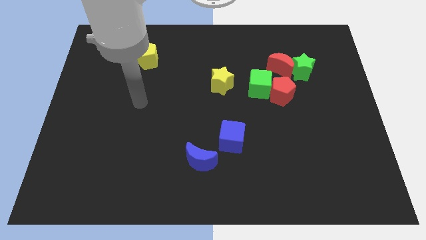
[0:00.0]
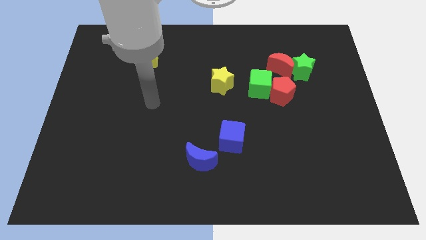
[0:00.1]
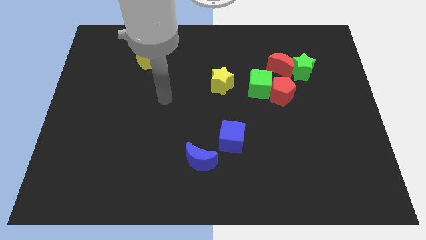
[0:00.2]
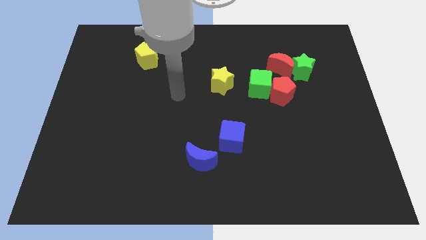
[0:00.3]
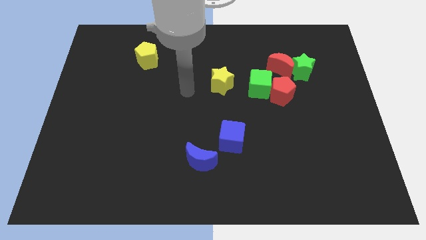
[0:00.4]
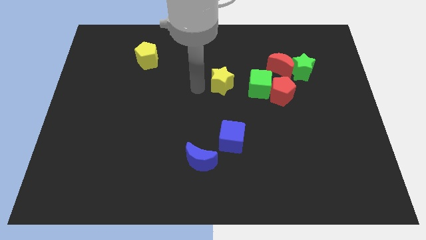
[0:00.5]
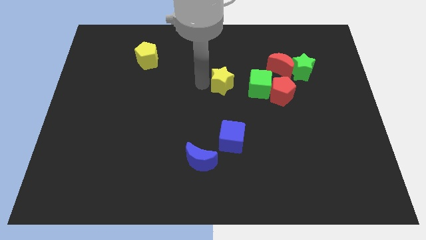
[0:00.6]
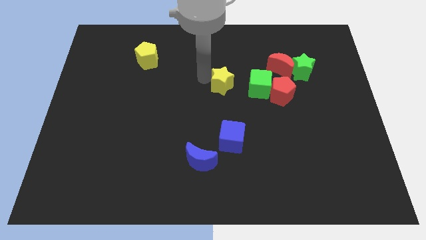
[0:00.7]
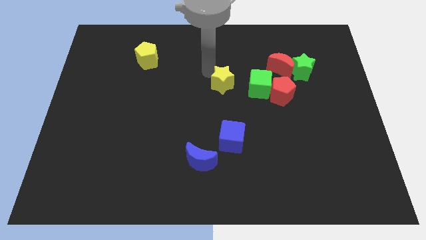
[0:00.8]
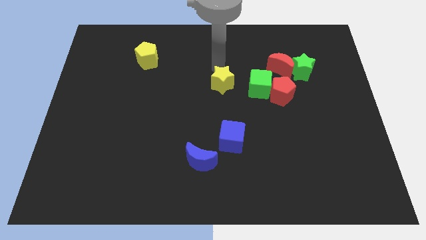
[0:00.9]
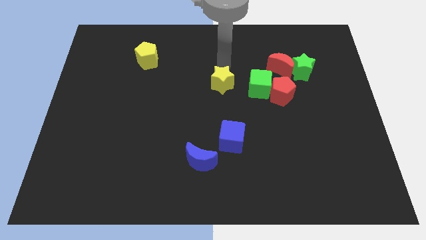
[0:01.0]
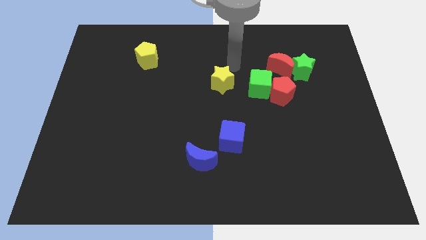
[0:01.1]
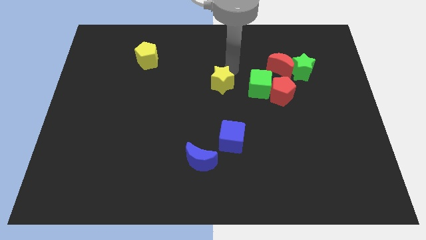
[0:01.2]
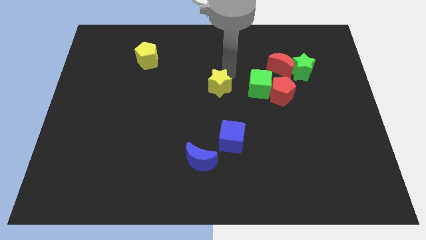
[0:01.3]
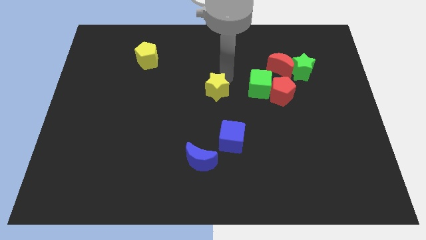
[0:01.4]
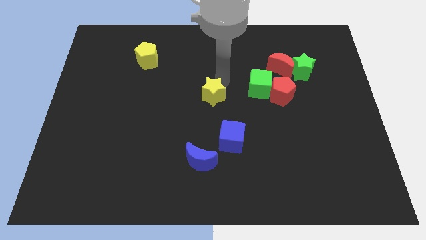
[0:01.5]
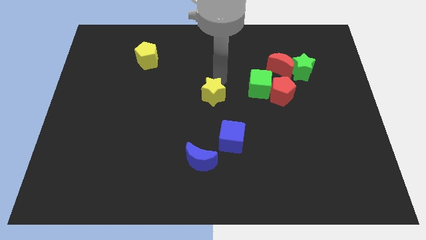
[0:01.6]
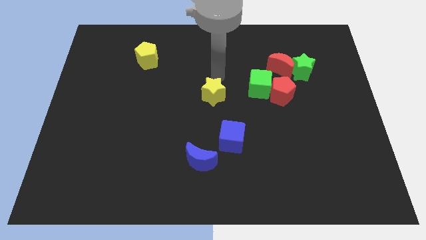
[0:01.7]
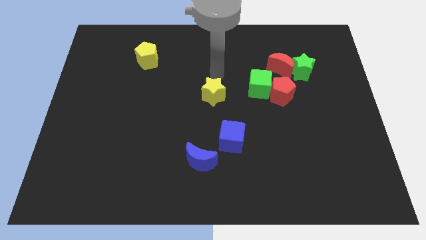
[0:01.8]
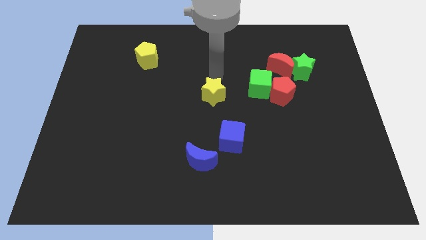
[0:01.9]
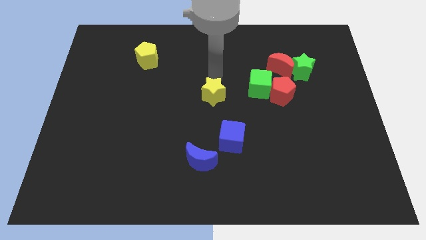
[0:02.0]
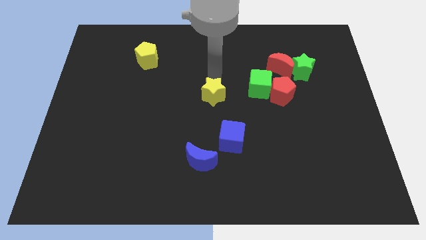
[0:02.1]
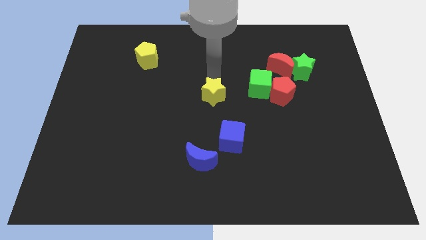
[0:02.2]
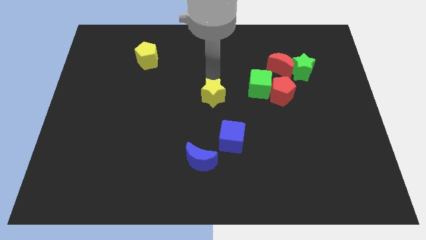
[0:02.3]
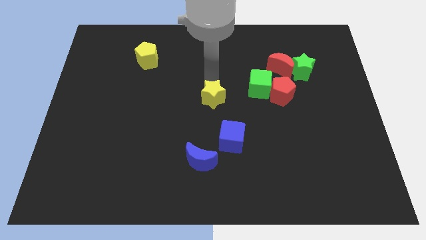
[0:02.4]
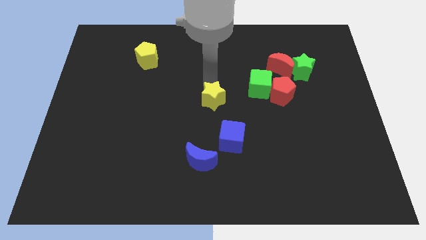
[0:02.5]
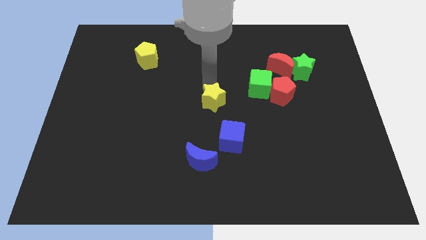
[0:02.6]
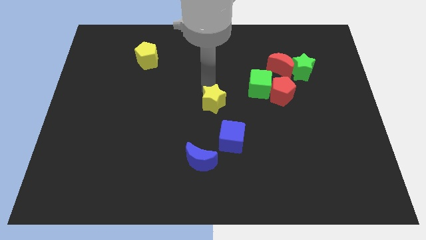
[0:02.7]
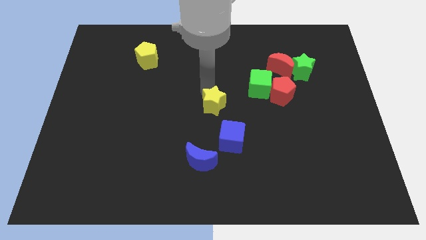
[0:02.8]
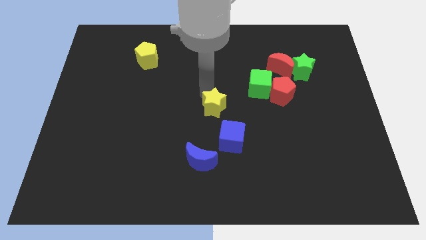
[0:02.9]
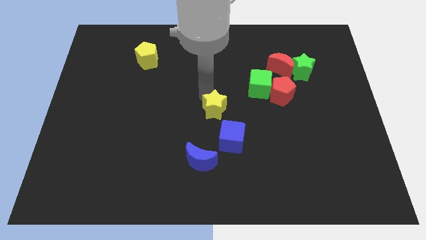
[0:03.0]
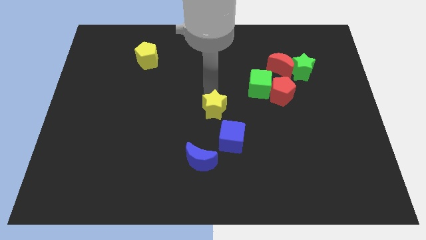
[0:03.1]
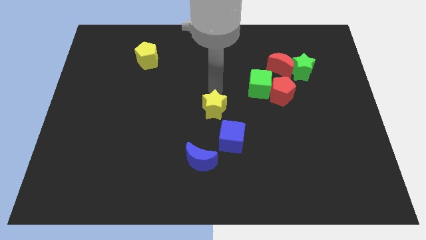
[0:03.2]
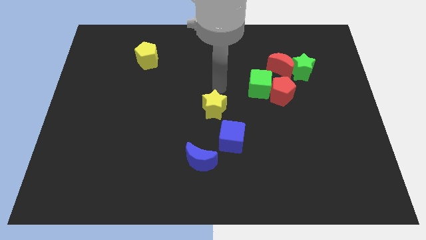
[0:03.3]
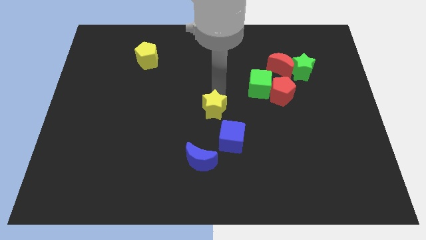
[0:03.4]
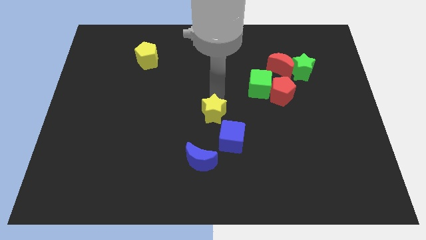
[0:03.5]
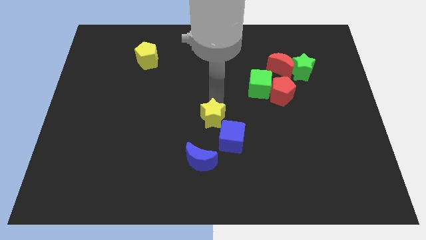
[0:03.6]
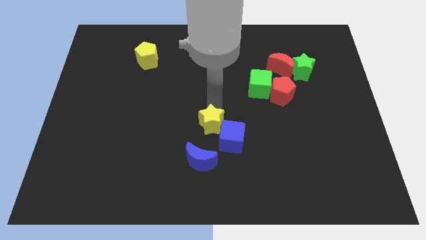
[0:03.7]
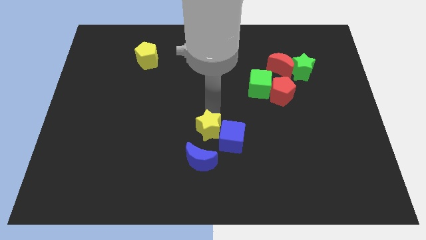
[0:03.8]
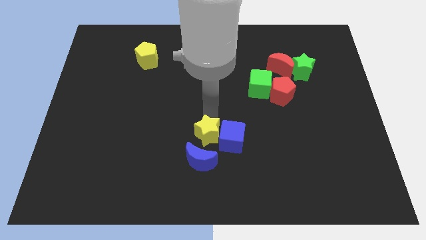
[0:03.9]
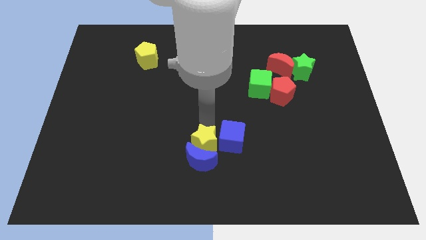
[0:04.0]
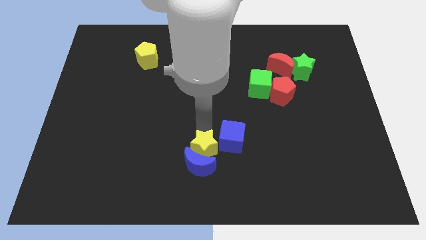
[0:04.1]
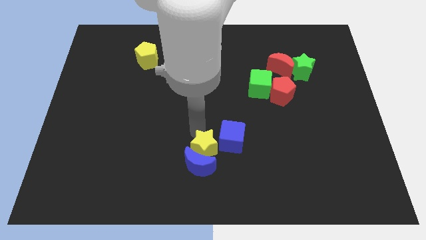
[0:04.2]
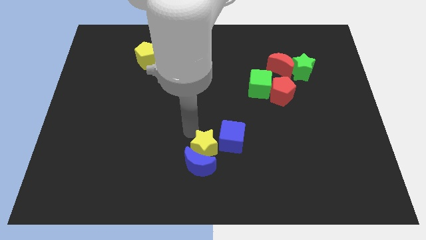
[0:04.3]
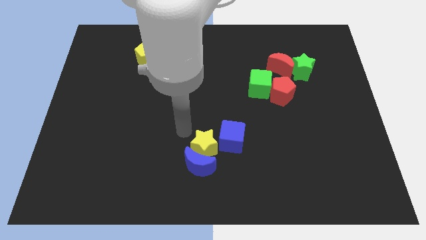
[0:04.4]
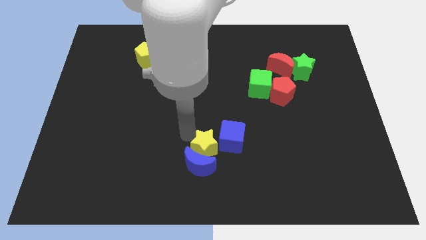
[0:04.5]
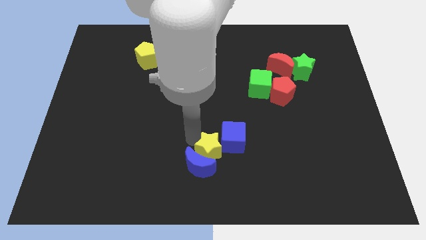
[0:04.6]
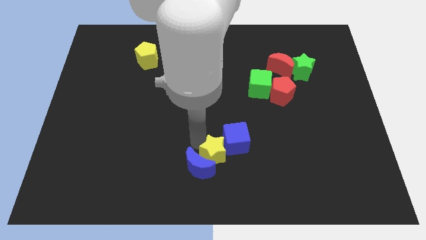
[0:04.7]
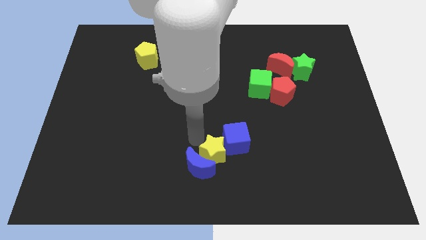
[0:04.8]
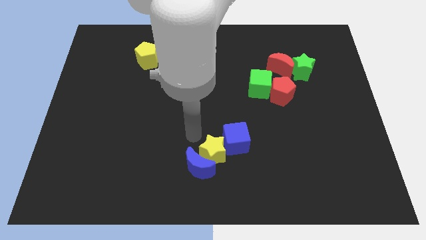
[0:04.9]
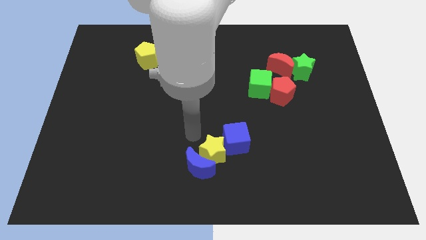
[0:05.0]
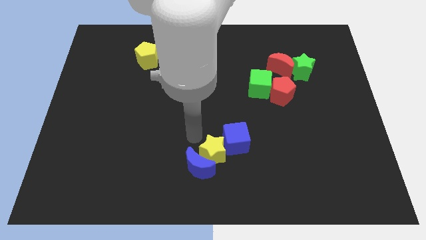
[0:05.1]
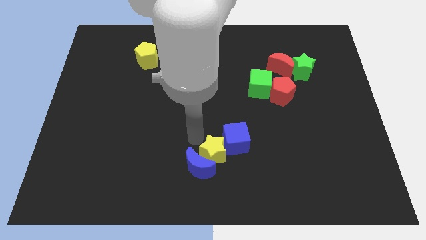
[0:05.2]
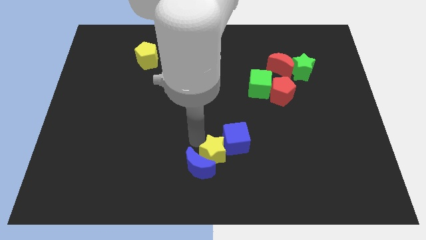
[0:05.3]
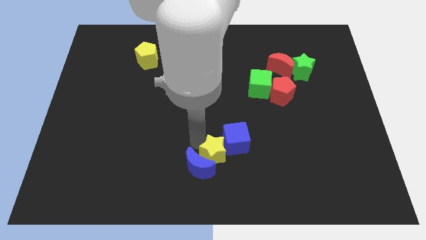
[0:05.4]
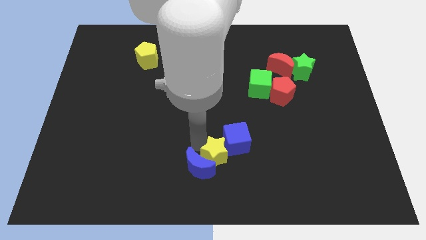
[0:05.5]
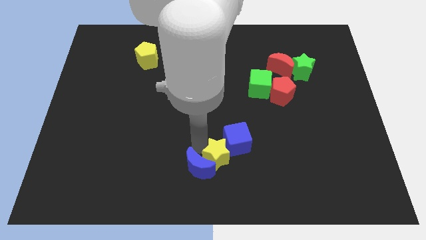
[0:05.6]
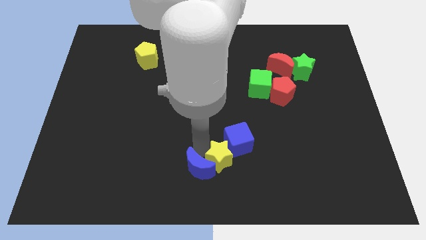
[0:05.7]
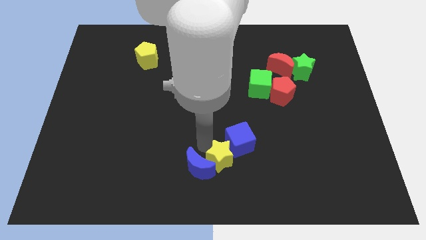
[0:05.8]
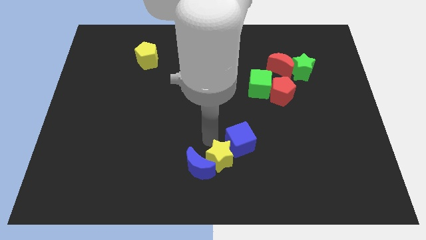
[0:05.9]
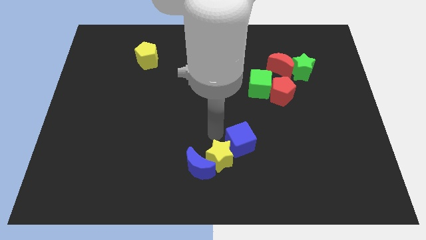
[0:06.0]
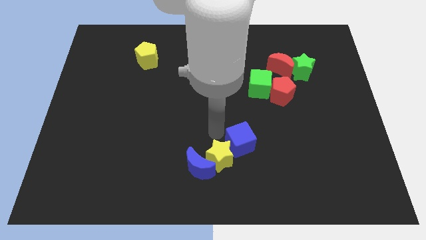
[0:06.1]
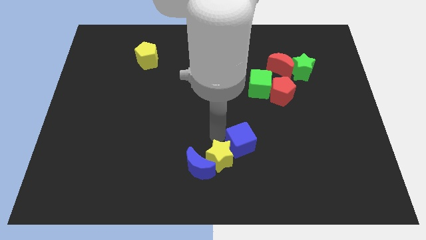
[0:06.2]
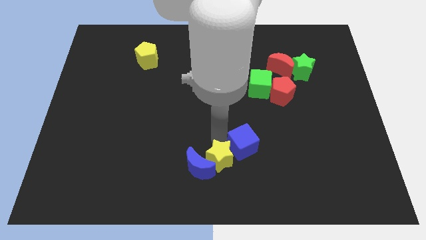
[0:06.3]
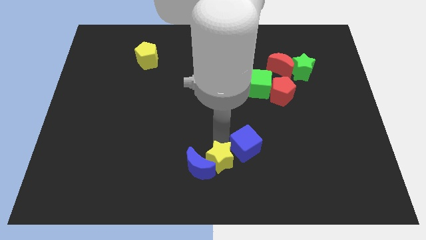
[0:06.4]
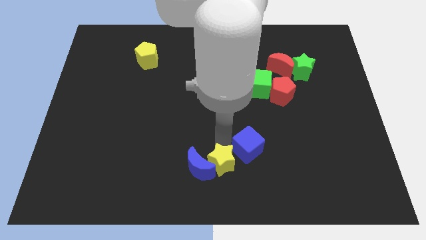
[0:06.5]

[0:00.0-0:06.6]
move the yellow star diagonally down and to the right of the blue moon
